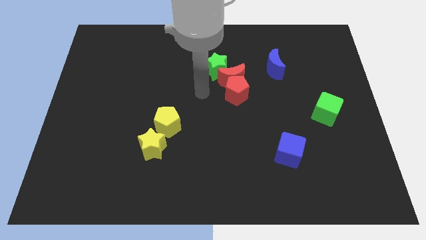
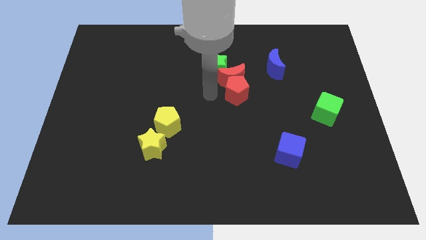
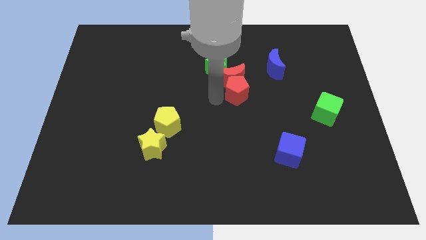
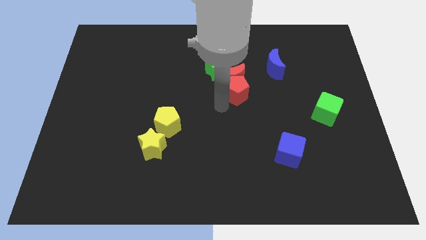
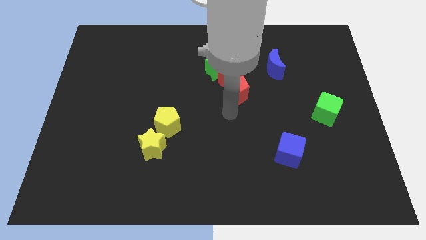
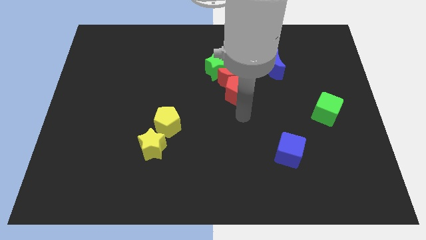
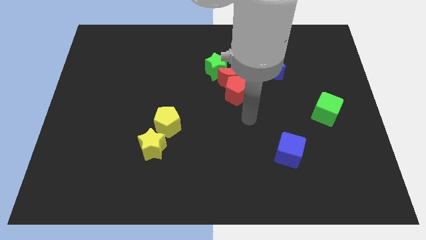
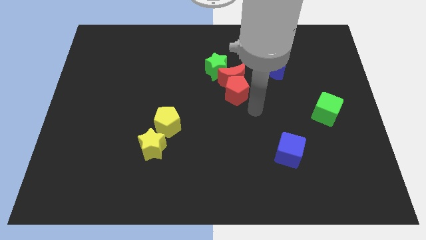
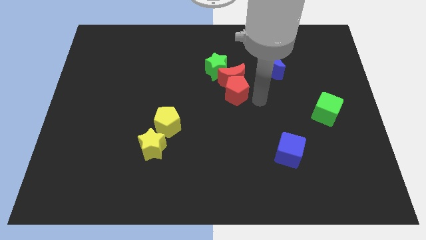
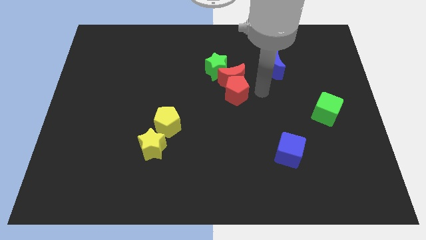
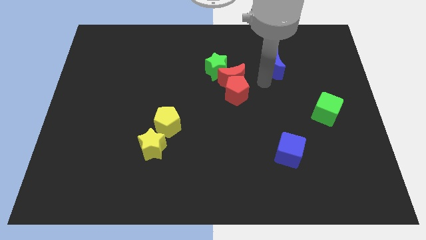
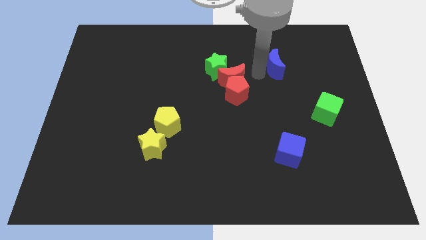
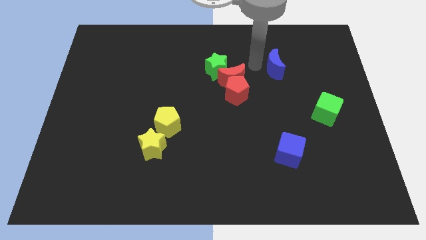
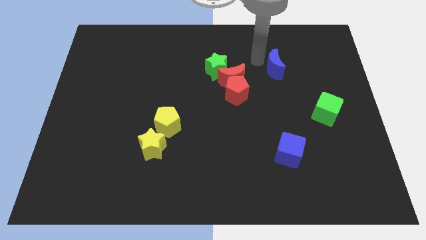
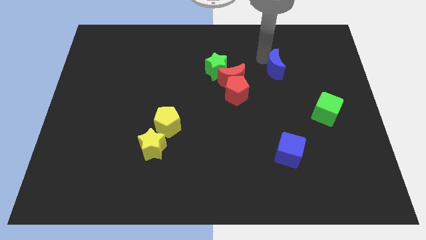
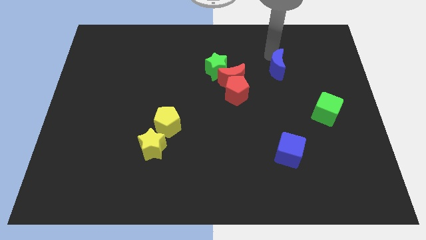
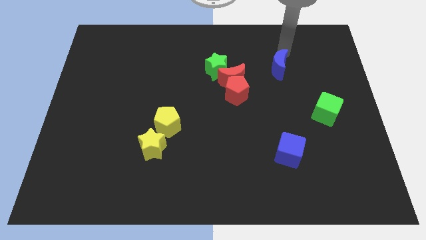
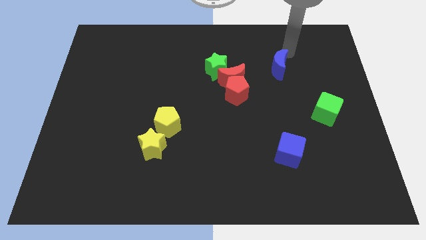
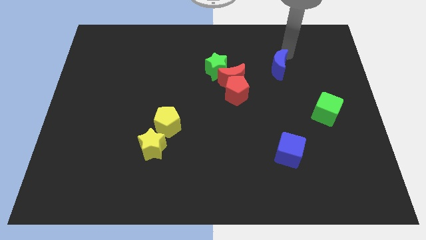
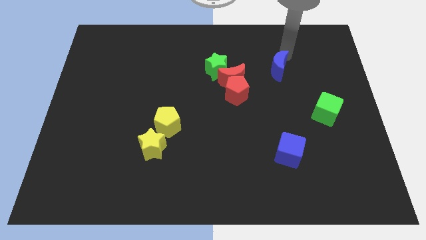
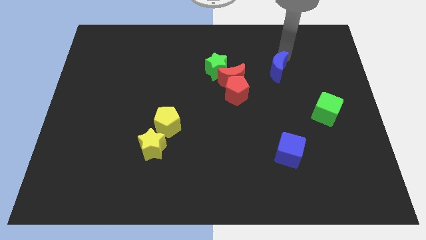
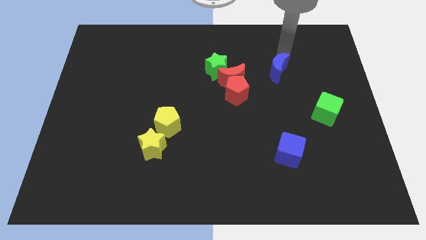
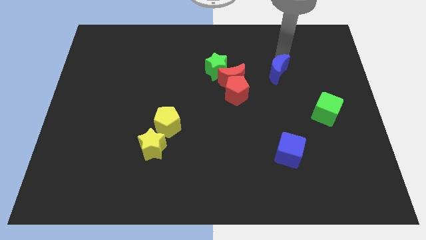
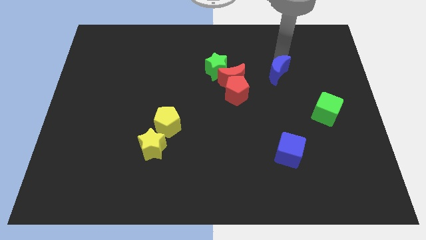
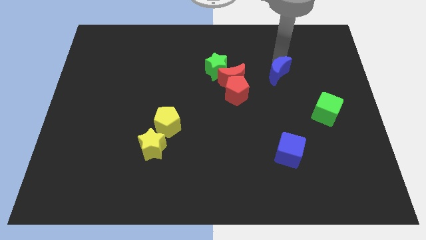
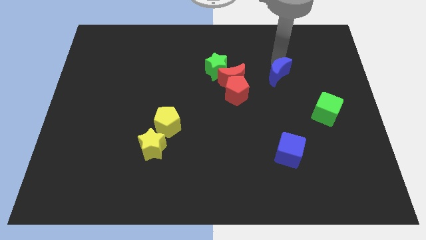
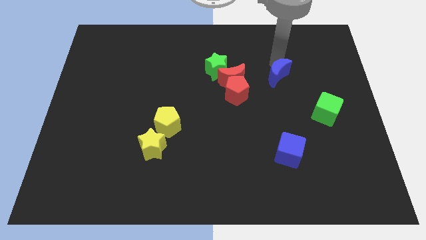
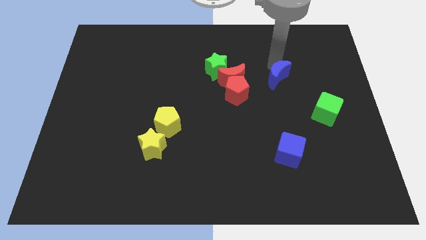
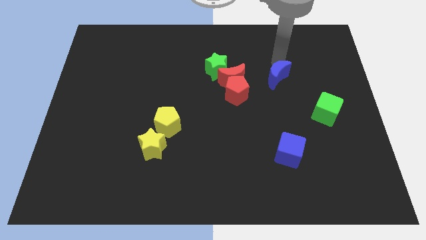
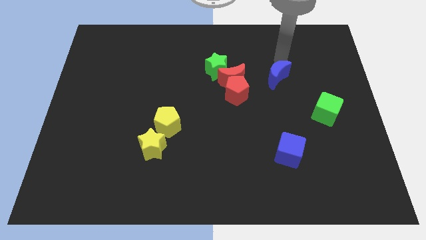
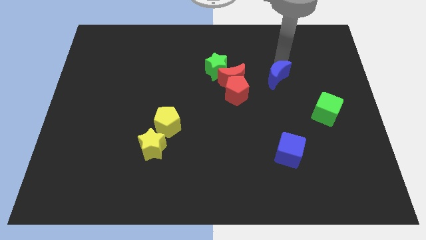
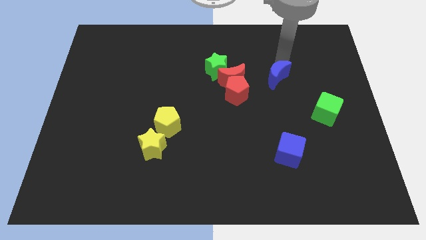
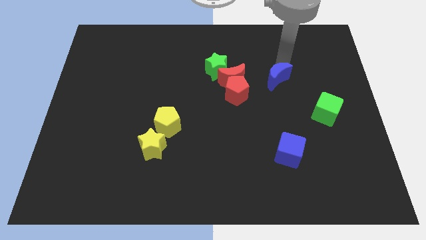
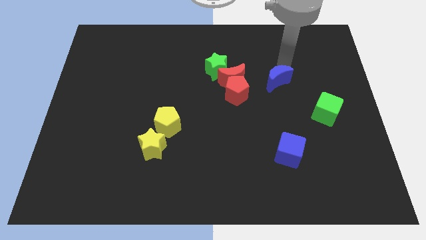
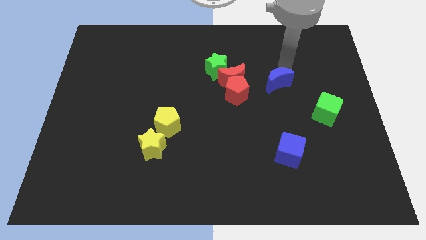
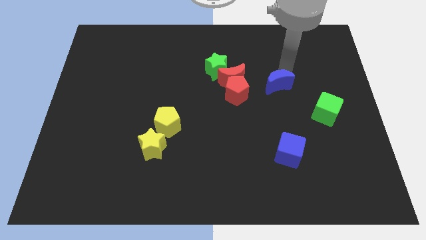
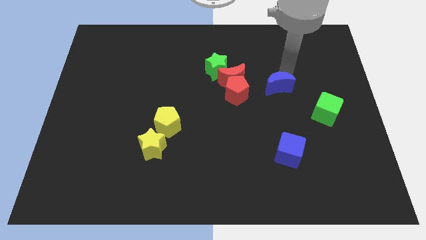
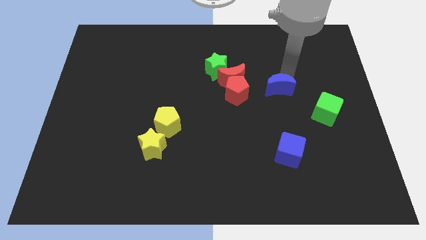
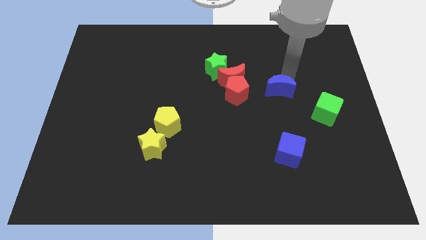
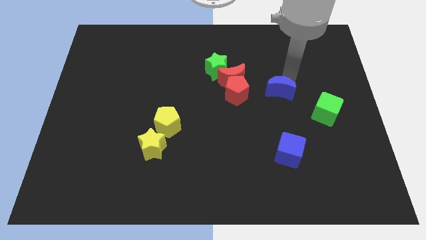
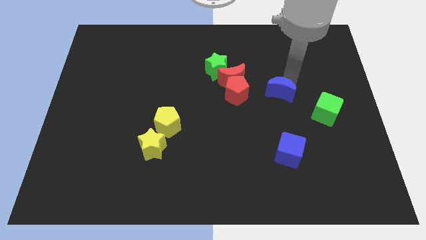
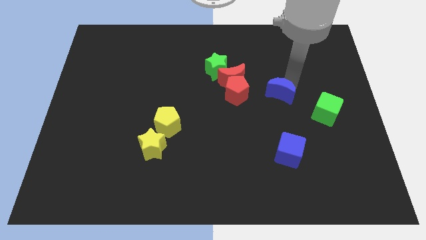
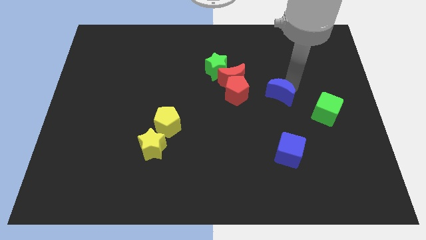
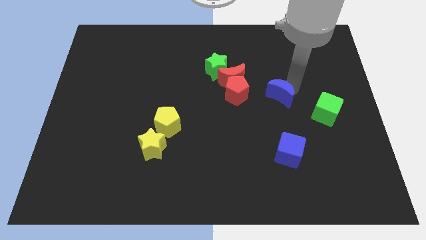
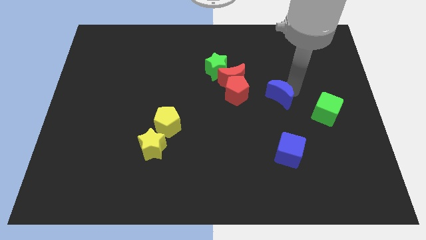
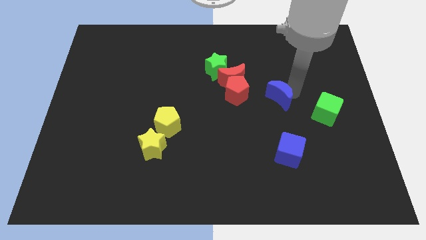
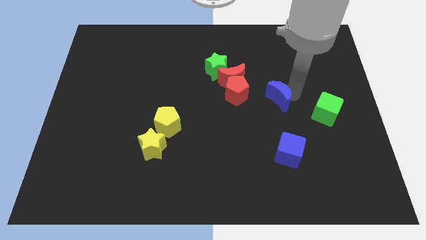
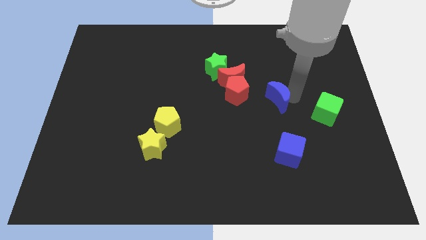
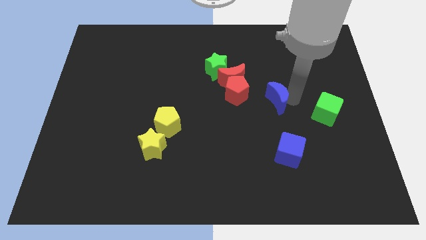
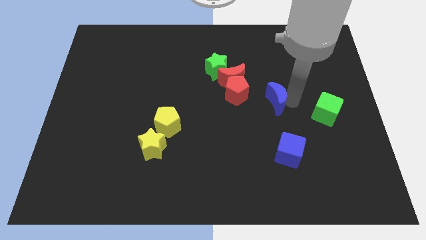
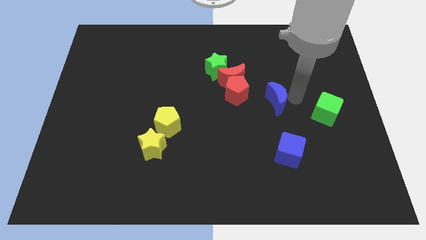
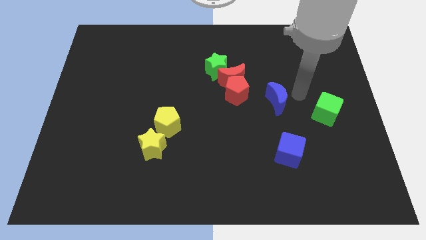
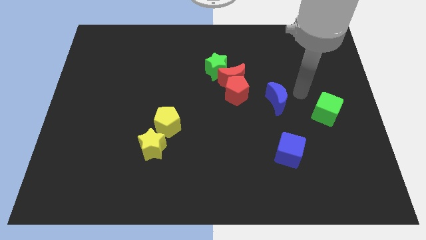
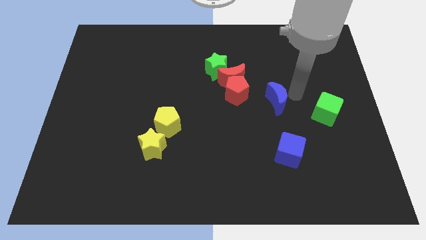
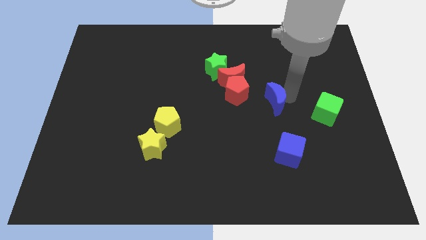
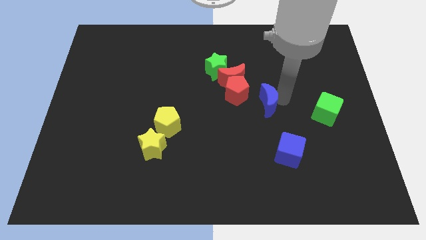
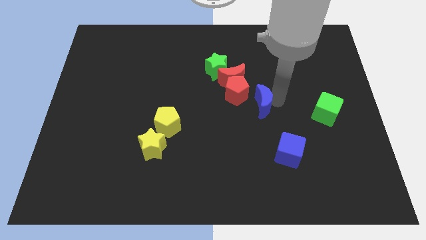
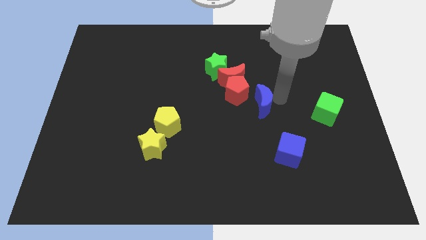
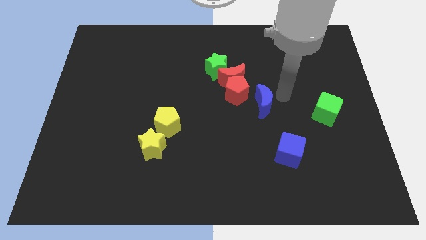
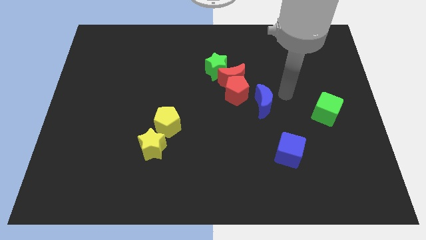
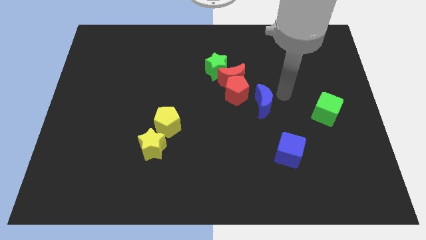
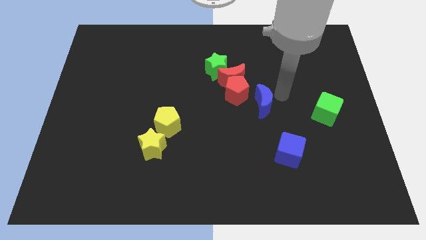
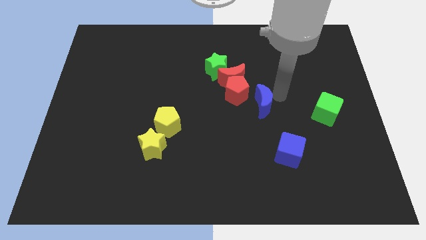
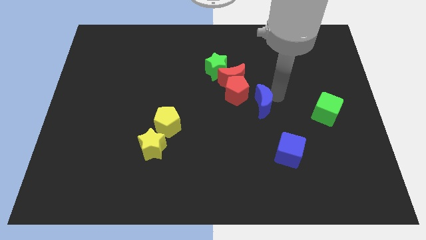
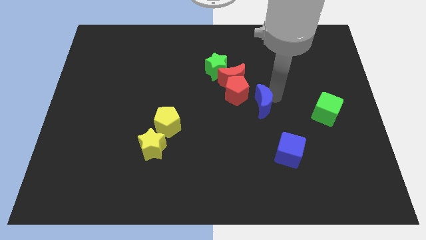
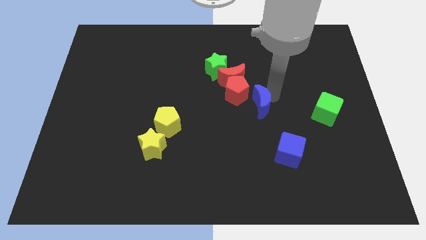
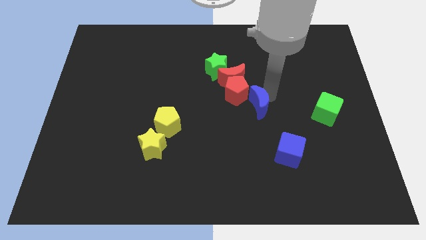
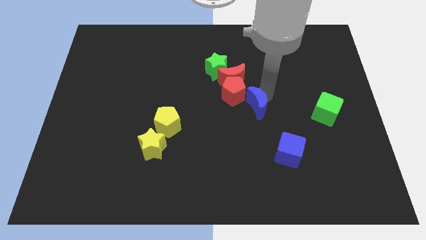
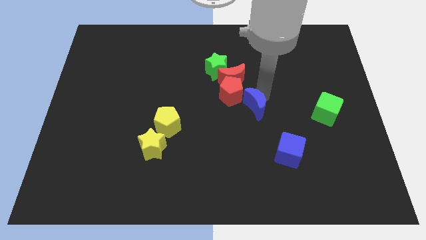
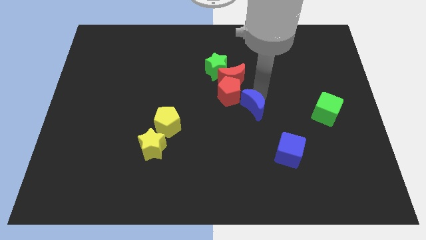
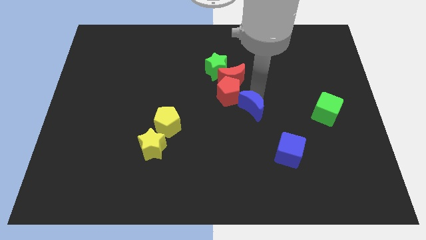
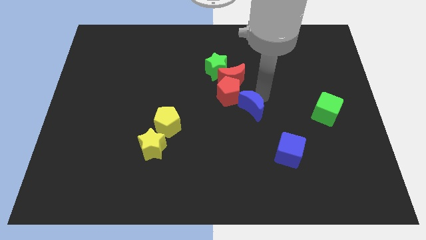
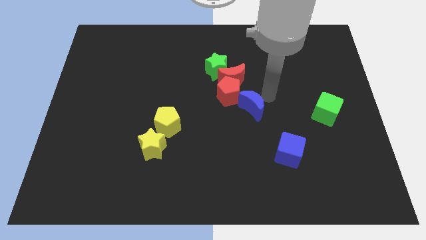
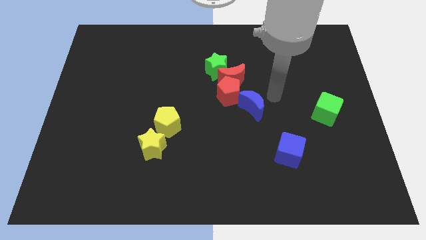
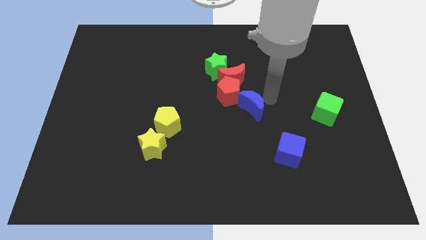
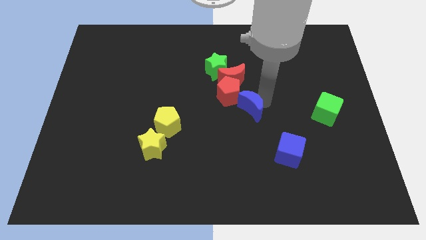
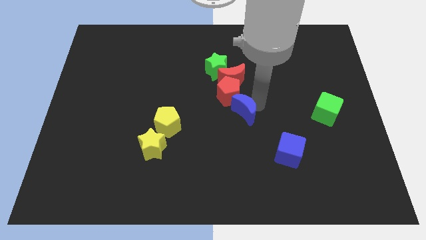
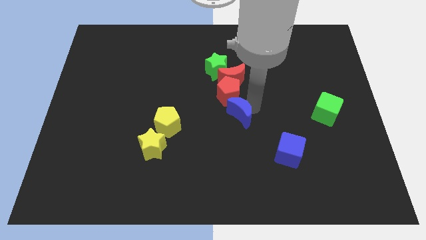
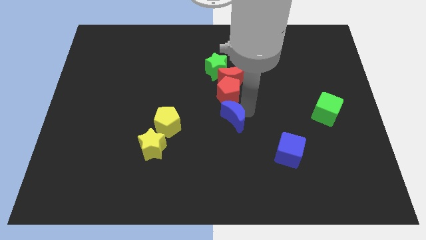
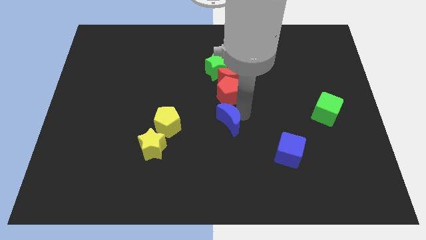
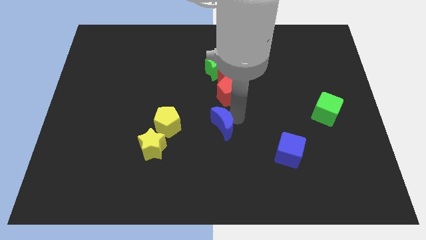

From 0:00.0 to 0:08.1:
push the blue moon diagonally downwards and left
